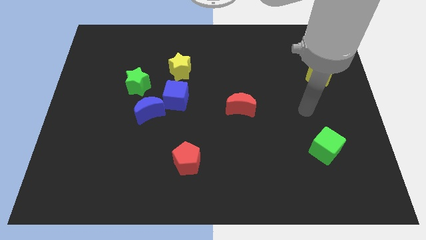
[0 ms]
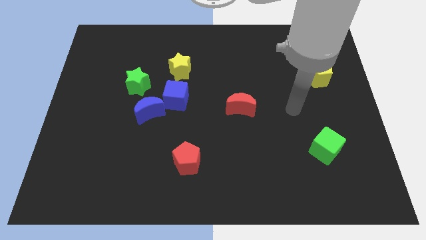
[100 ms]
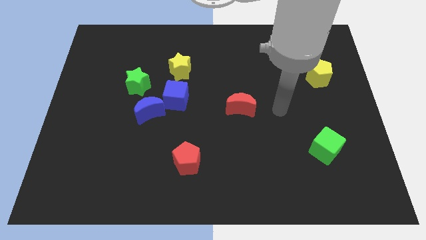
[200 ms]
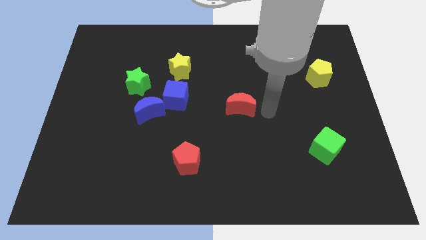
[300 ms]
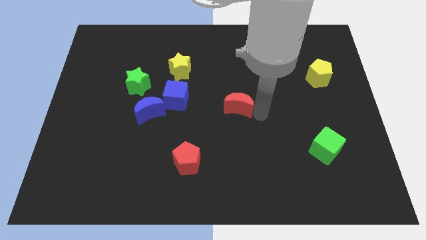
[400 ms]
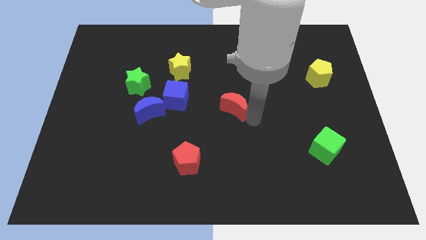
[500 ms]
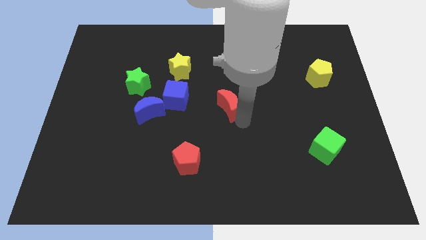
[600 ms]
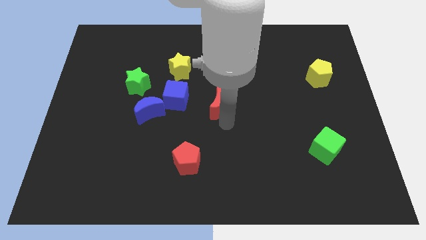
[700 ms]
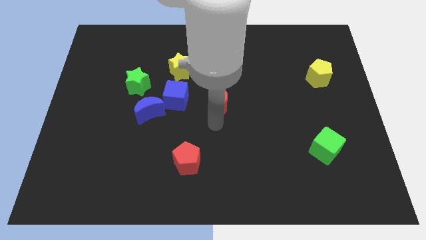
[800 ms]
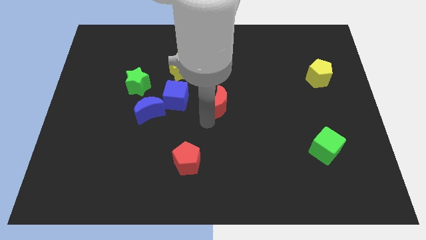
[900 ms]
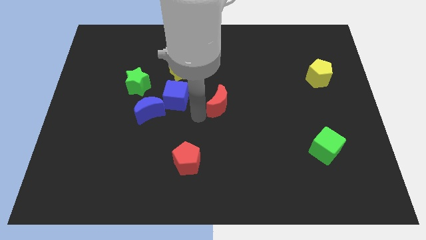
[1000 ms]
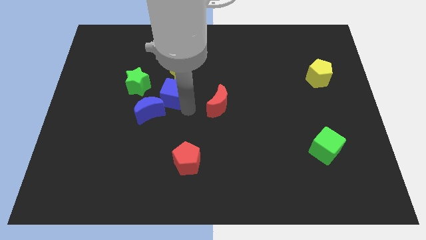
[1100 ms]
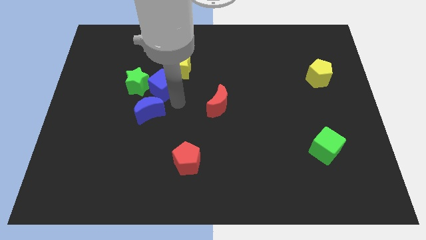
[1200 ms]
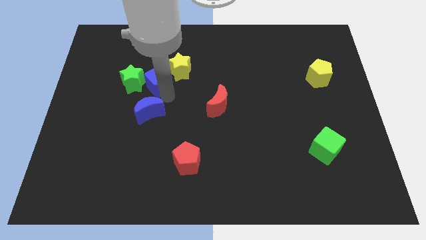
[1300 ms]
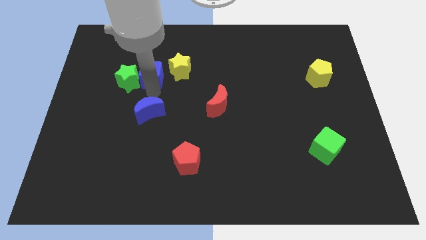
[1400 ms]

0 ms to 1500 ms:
pull the blue moon apart from the blue cube and green star

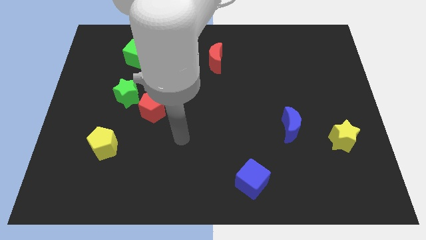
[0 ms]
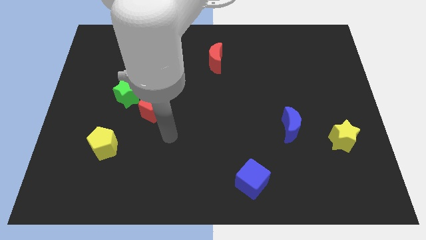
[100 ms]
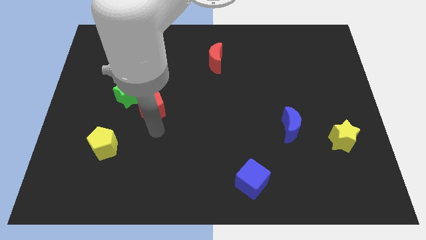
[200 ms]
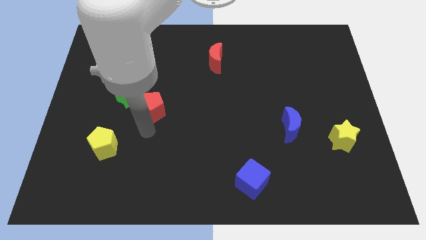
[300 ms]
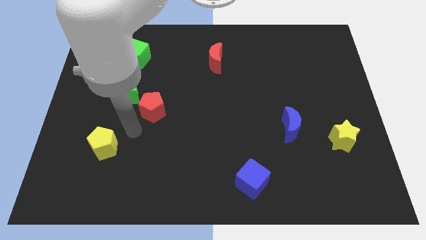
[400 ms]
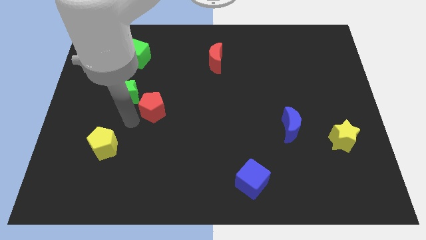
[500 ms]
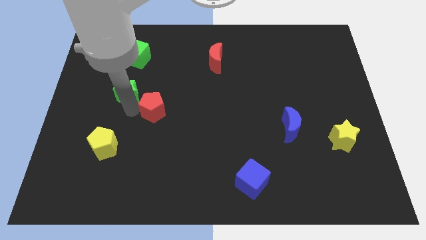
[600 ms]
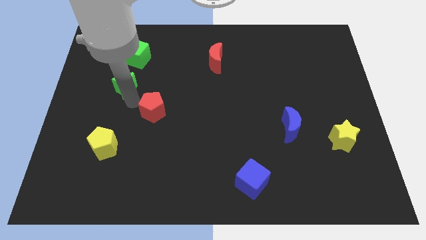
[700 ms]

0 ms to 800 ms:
move the red pentagon away from the green star

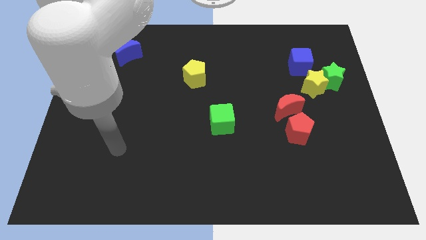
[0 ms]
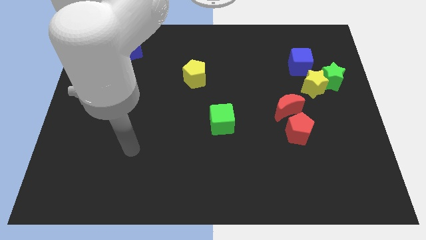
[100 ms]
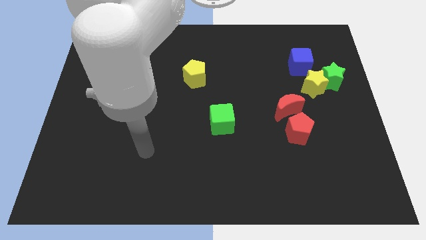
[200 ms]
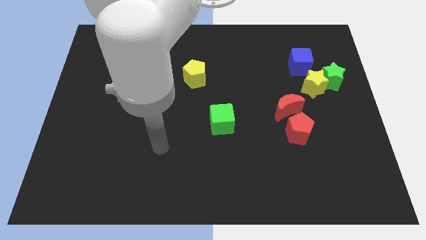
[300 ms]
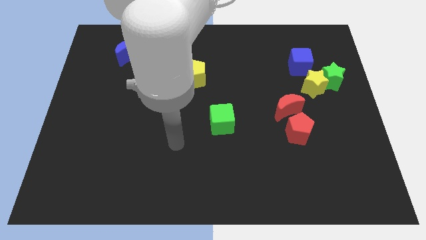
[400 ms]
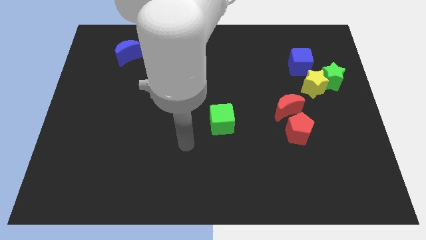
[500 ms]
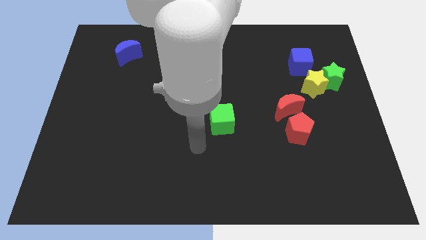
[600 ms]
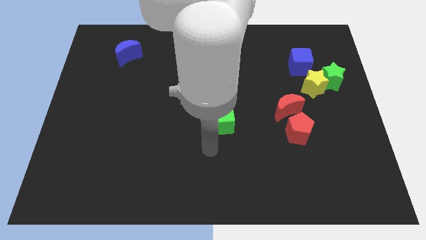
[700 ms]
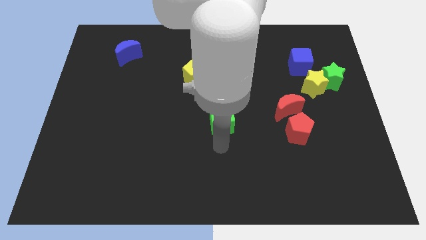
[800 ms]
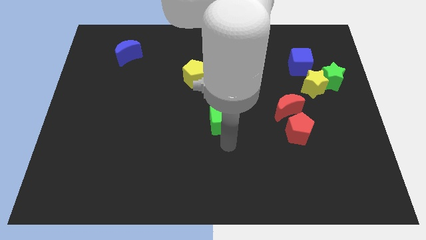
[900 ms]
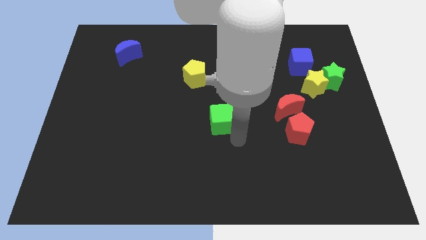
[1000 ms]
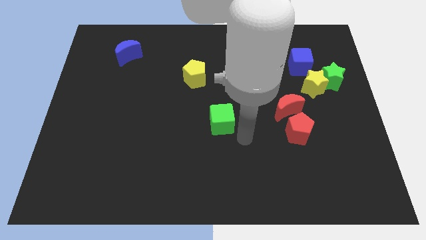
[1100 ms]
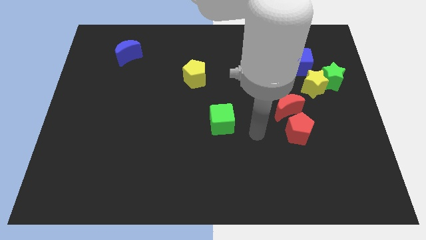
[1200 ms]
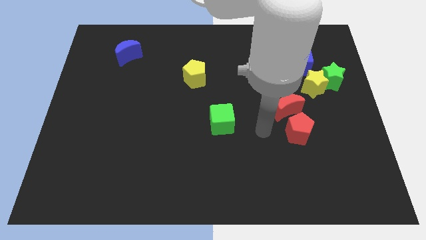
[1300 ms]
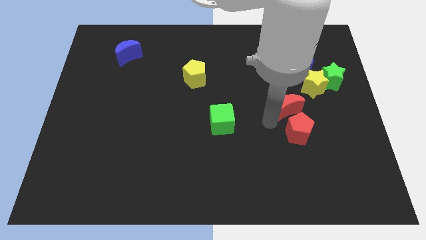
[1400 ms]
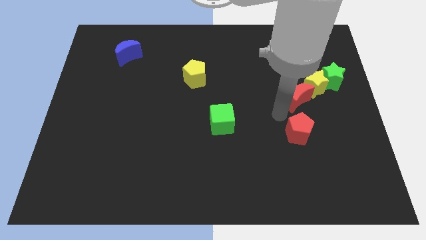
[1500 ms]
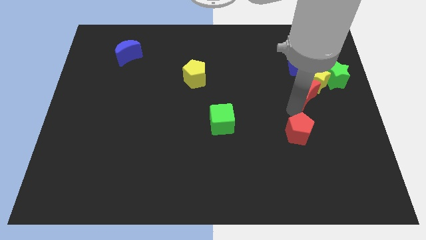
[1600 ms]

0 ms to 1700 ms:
pull the red pentagon apart from the red moon

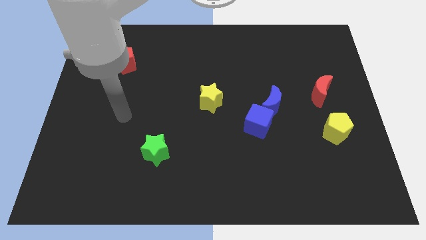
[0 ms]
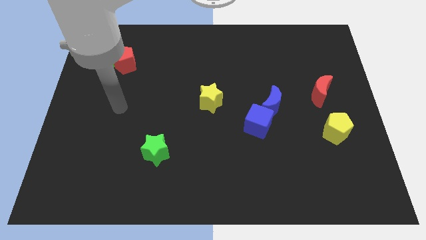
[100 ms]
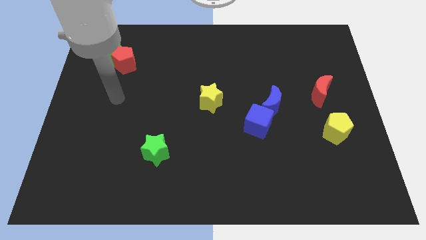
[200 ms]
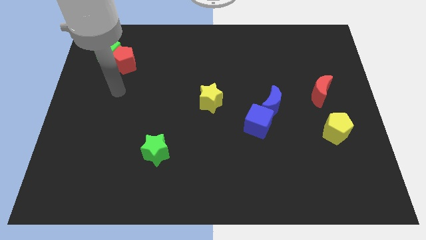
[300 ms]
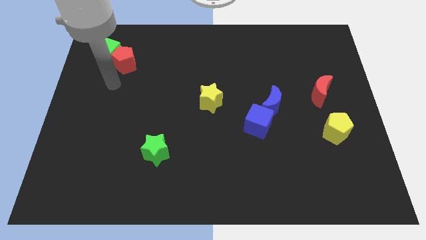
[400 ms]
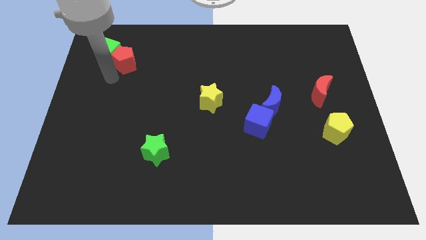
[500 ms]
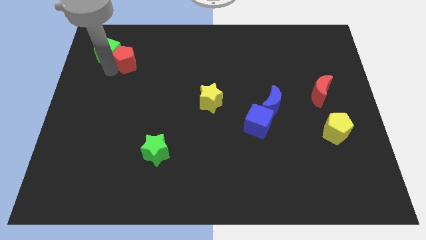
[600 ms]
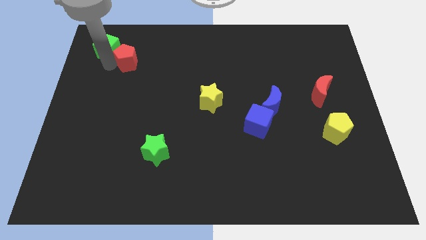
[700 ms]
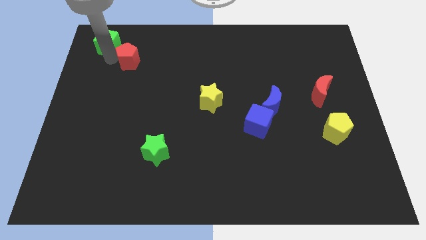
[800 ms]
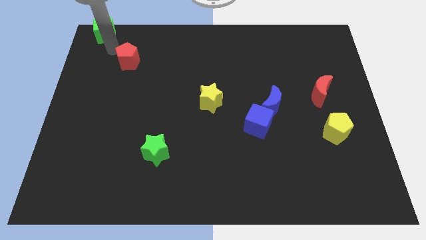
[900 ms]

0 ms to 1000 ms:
separate the red pentagon from the green cube

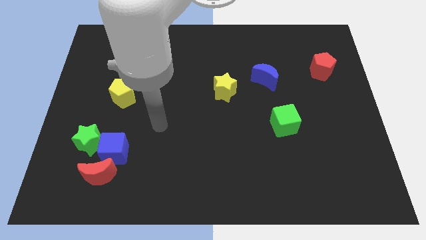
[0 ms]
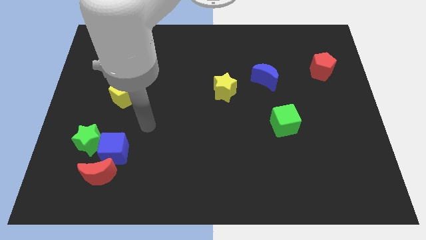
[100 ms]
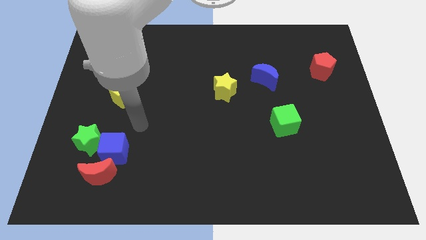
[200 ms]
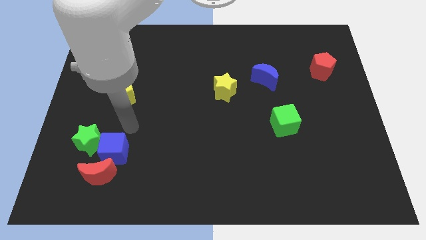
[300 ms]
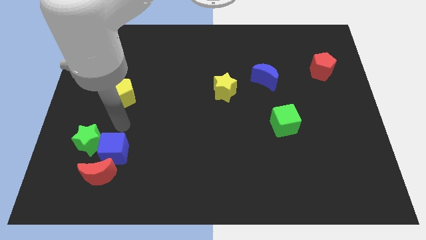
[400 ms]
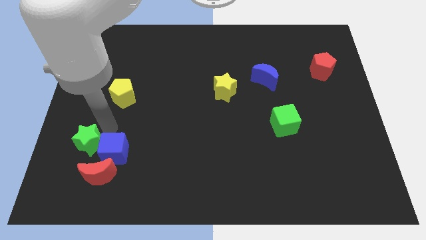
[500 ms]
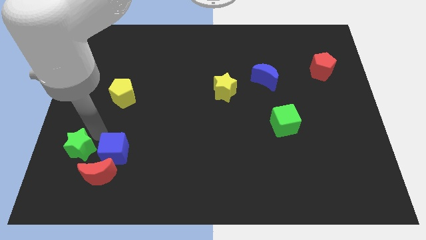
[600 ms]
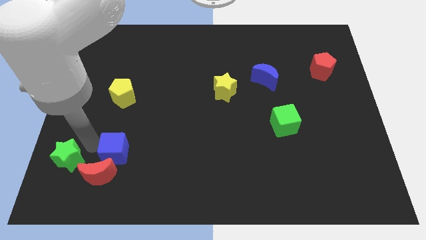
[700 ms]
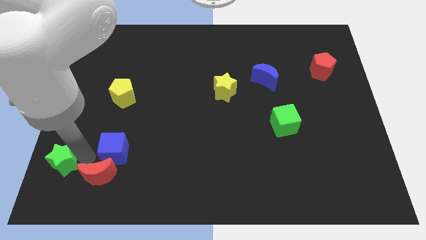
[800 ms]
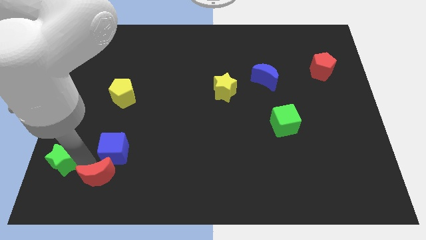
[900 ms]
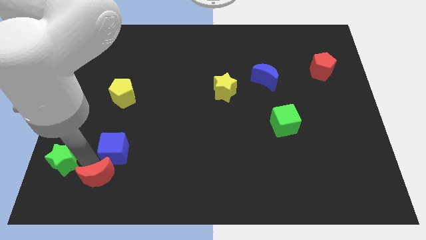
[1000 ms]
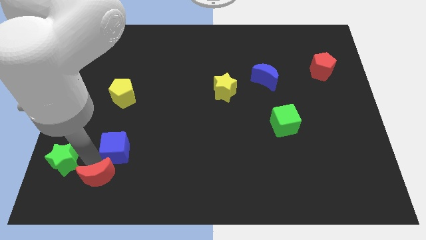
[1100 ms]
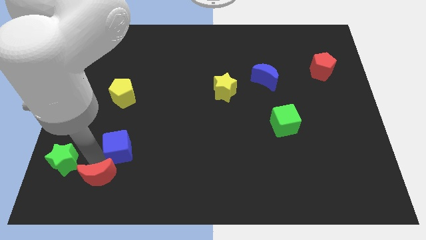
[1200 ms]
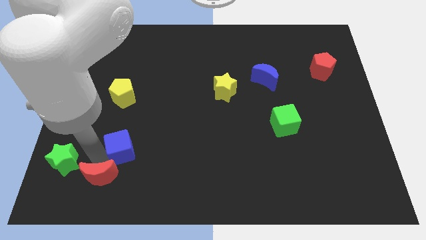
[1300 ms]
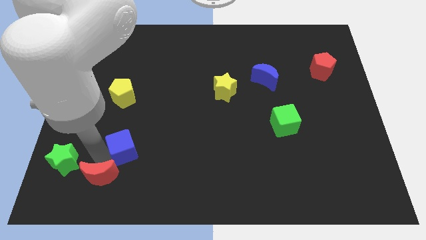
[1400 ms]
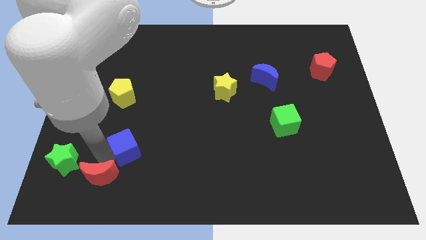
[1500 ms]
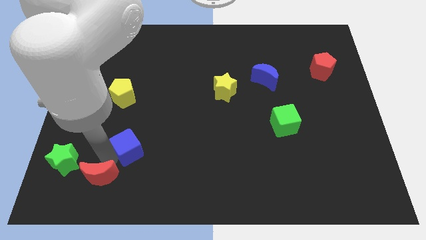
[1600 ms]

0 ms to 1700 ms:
move the blue cube away from the red moon and green star

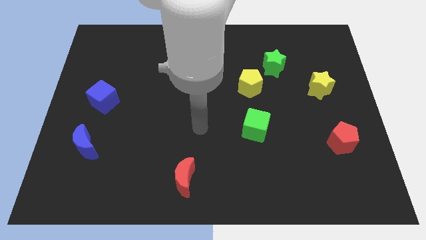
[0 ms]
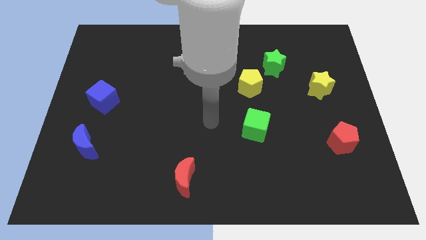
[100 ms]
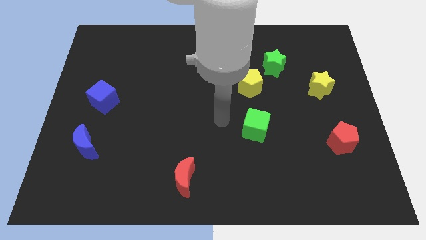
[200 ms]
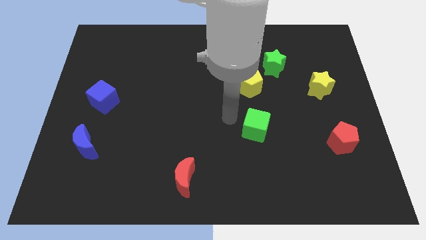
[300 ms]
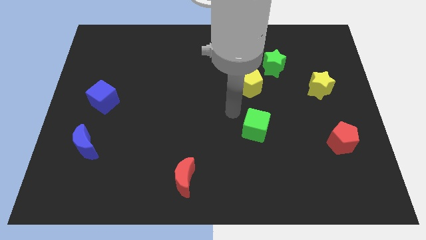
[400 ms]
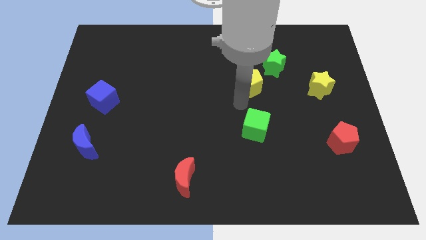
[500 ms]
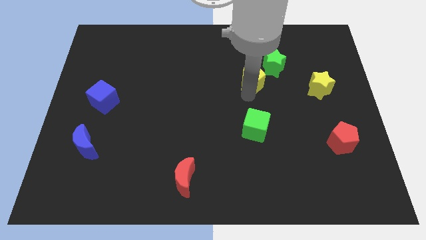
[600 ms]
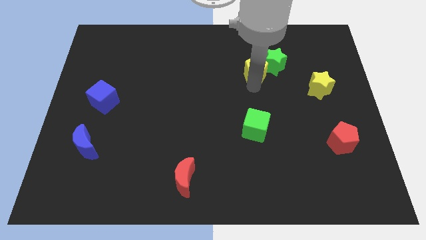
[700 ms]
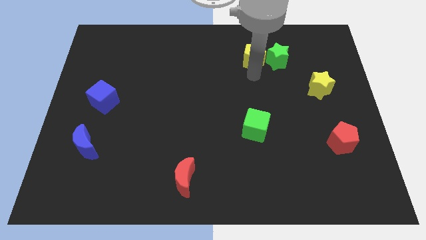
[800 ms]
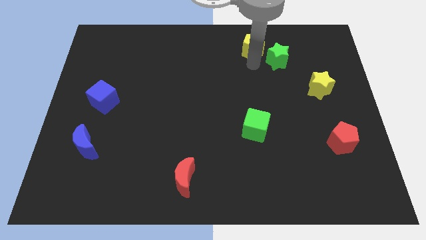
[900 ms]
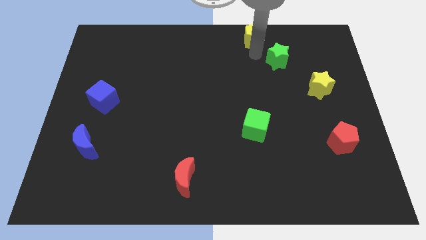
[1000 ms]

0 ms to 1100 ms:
separate the green star from the yellow pentagon

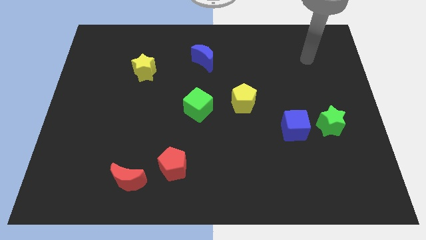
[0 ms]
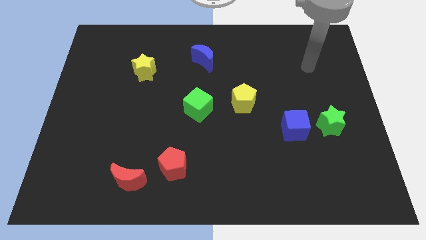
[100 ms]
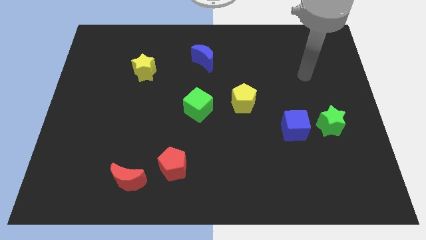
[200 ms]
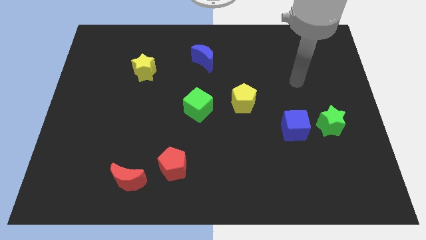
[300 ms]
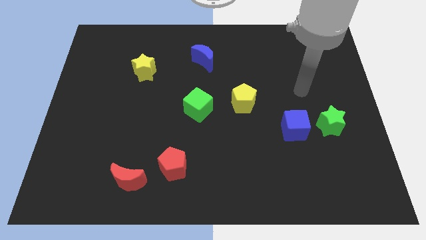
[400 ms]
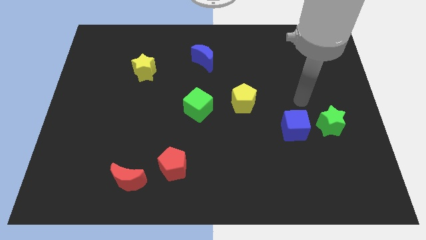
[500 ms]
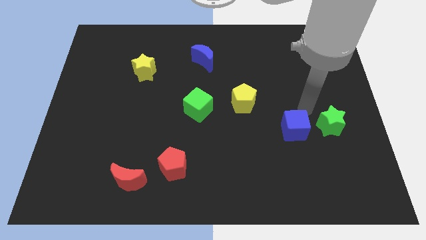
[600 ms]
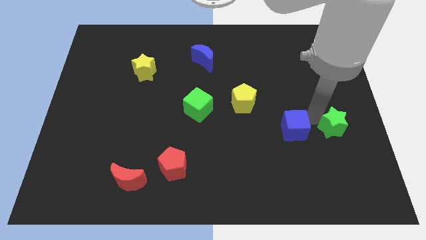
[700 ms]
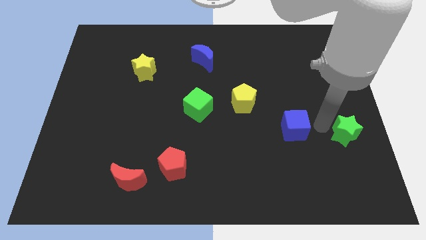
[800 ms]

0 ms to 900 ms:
separate the blue cube from the green star

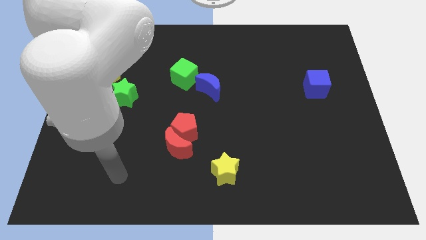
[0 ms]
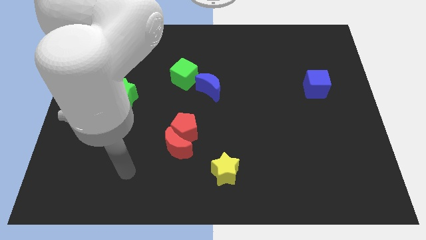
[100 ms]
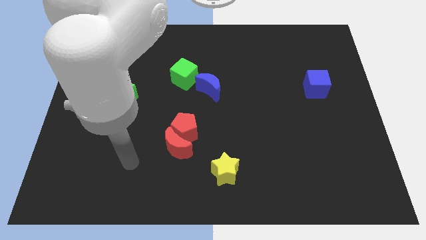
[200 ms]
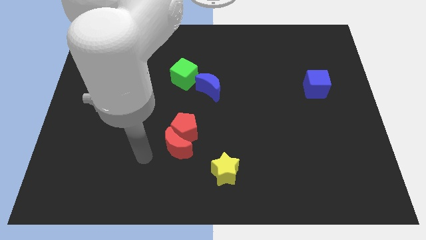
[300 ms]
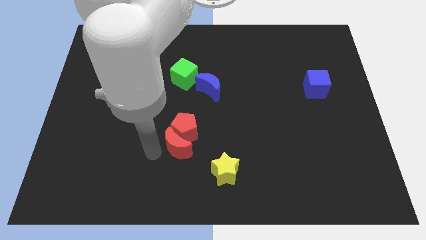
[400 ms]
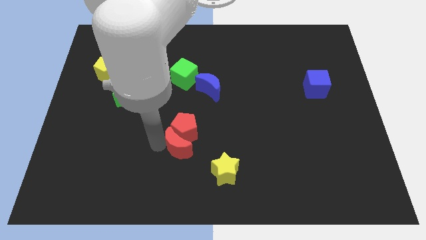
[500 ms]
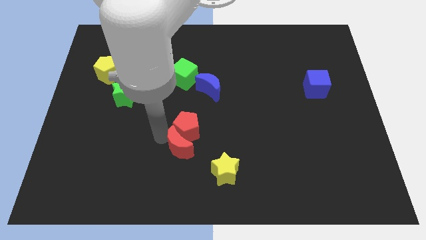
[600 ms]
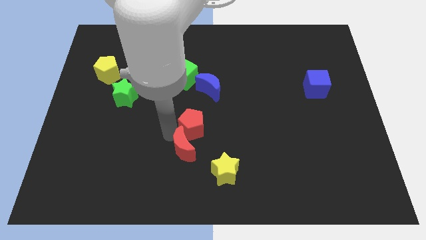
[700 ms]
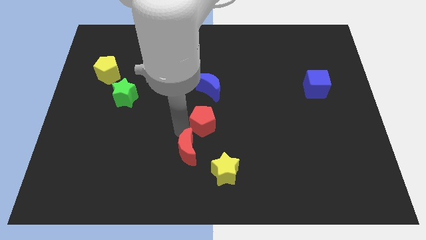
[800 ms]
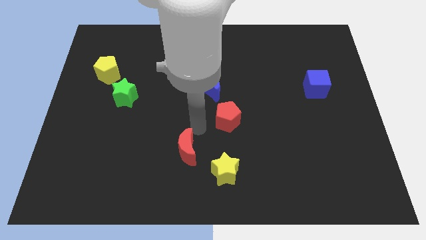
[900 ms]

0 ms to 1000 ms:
move the red moon away from the red pentagon
